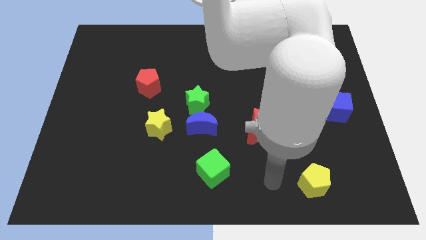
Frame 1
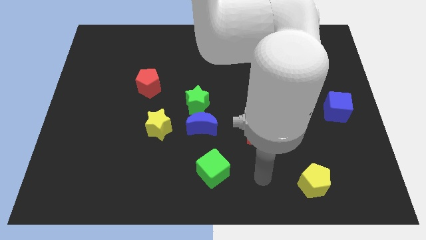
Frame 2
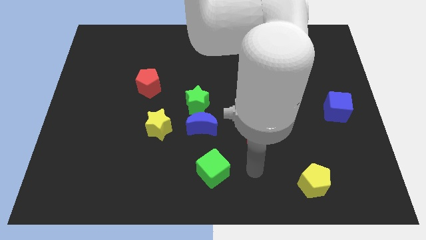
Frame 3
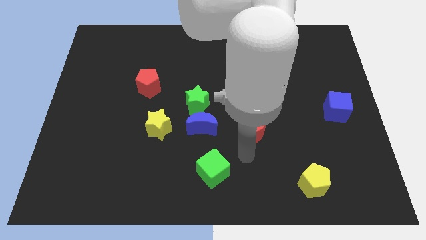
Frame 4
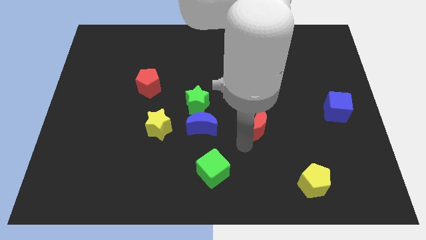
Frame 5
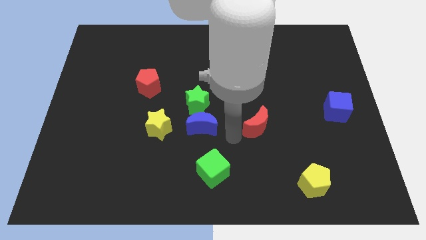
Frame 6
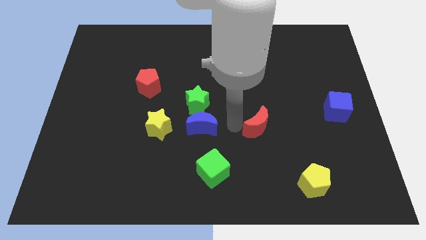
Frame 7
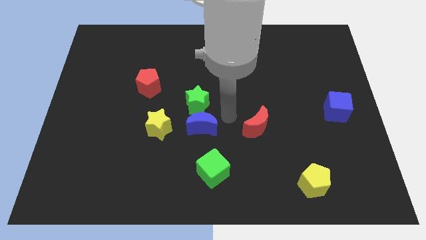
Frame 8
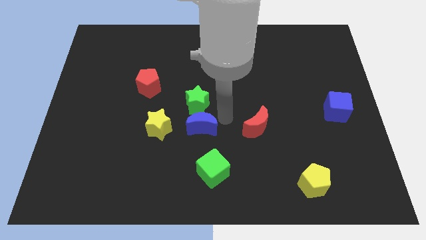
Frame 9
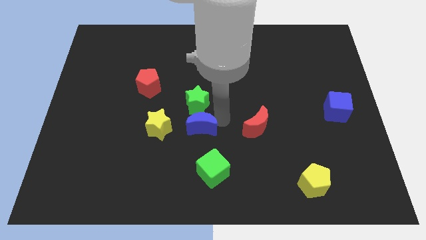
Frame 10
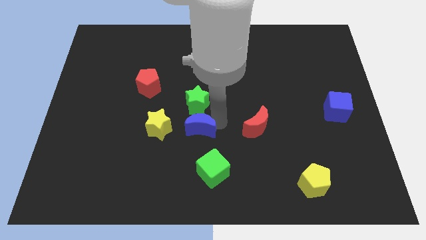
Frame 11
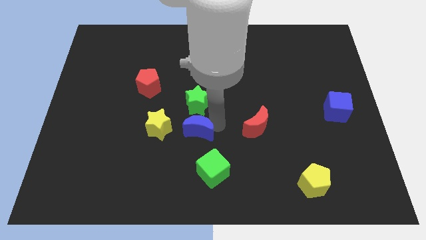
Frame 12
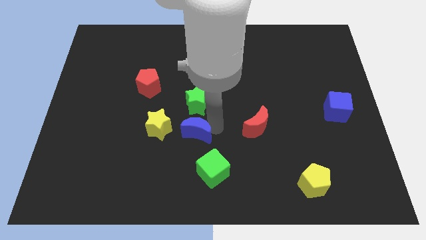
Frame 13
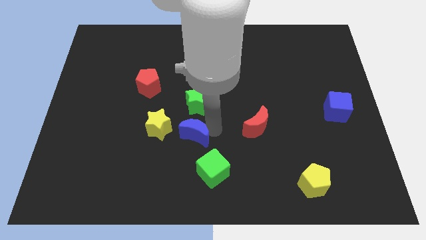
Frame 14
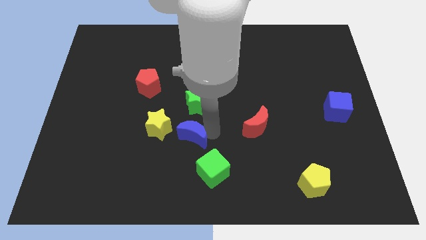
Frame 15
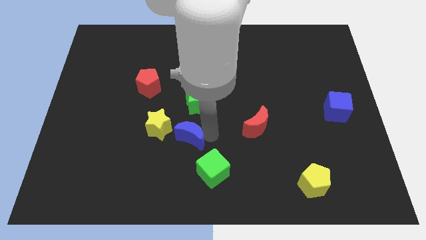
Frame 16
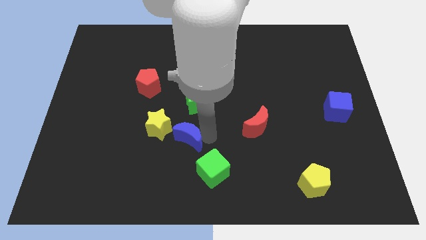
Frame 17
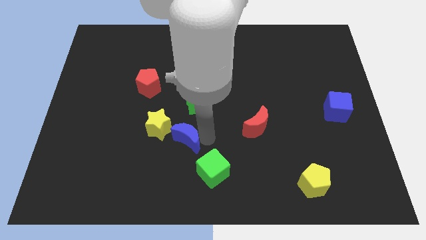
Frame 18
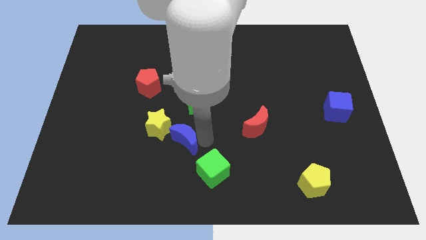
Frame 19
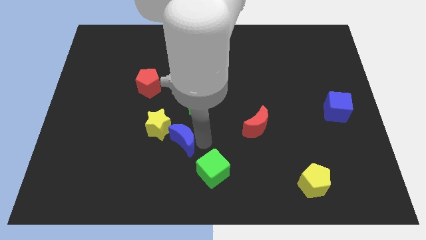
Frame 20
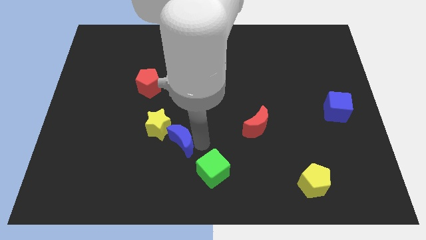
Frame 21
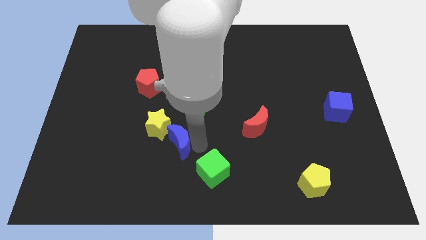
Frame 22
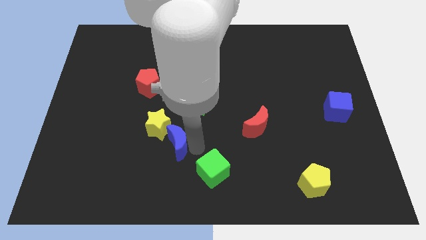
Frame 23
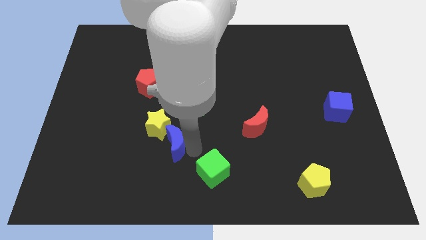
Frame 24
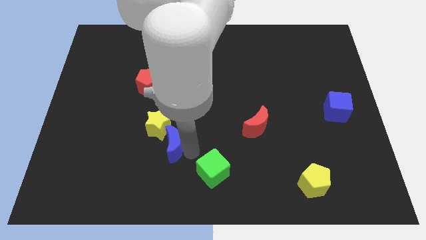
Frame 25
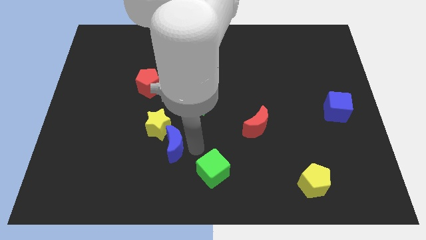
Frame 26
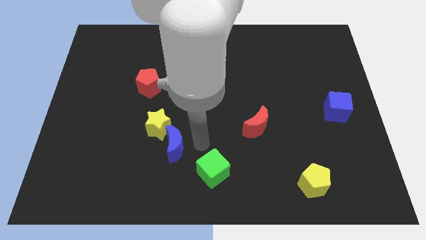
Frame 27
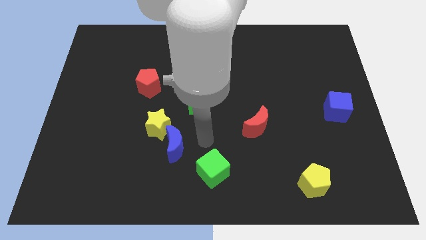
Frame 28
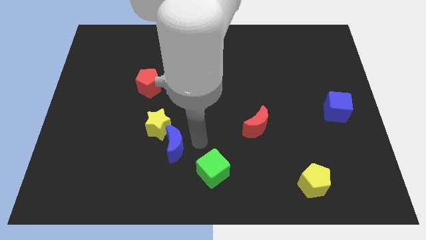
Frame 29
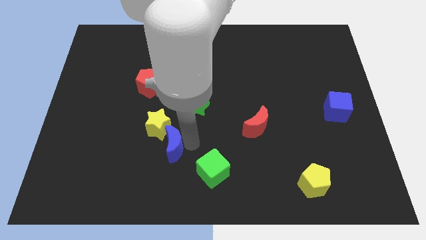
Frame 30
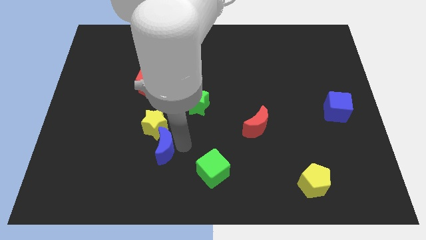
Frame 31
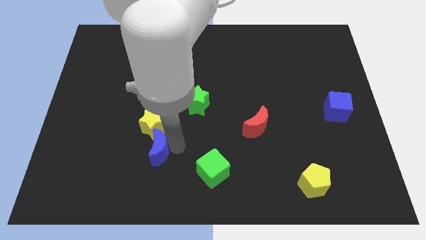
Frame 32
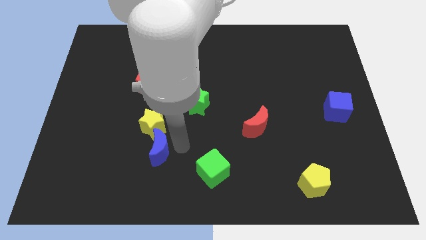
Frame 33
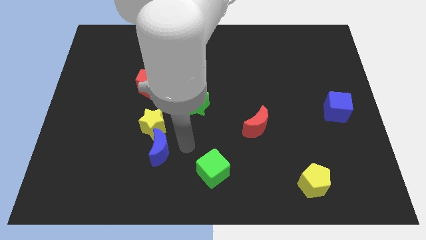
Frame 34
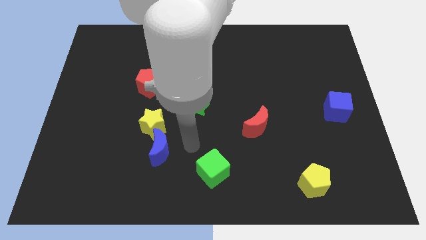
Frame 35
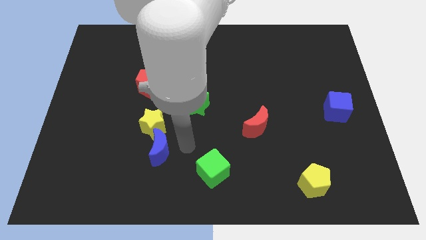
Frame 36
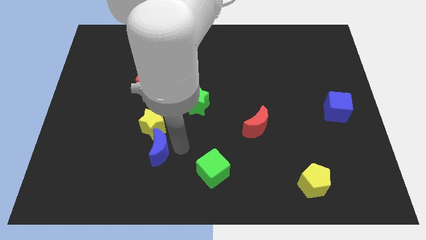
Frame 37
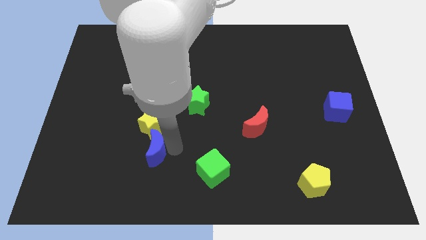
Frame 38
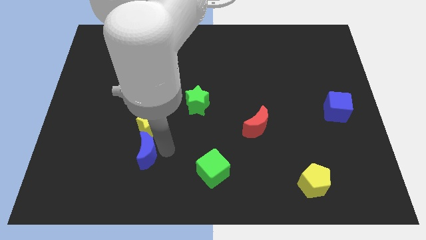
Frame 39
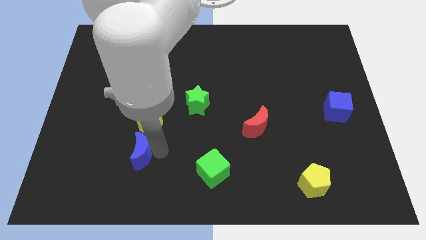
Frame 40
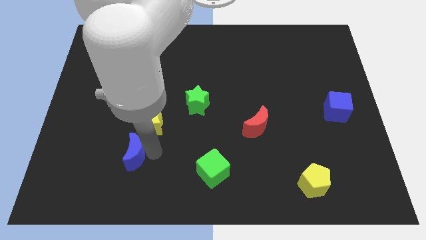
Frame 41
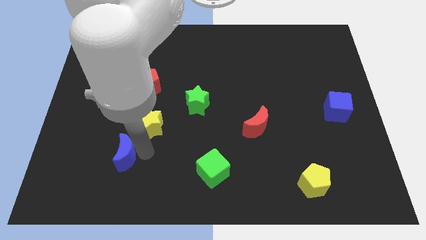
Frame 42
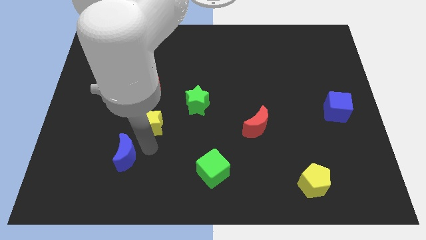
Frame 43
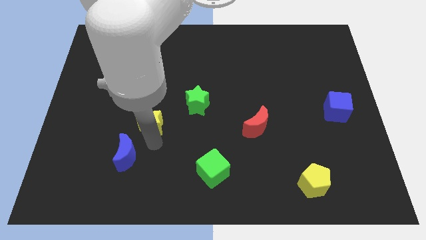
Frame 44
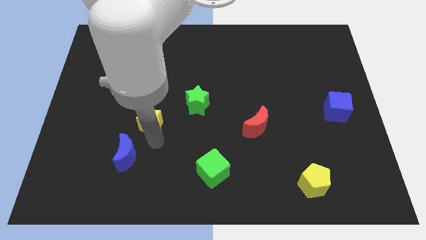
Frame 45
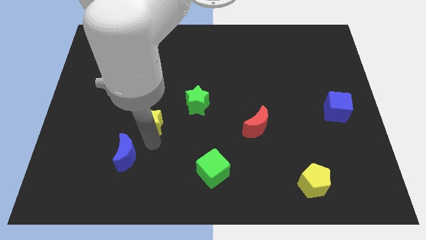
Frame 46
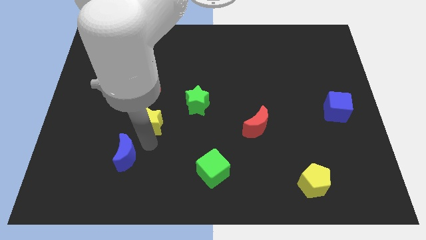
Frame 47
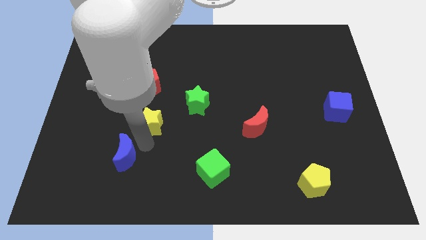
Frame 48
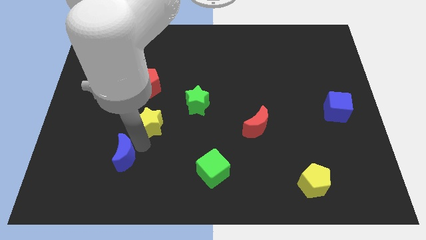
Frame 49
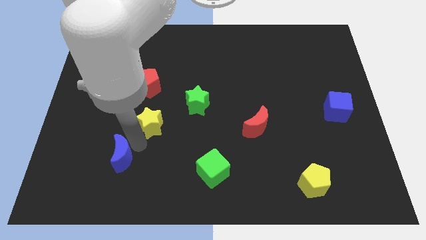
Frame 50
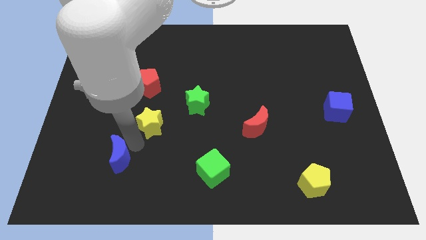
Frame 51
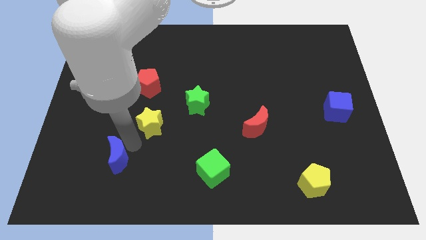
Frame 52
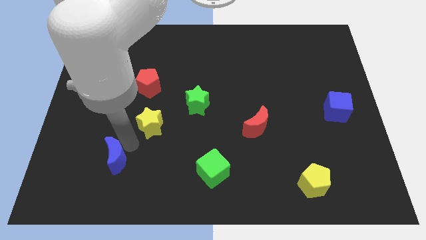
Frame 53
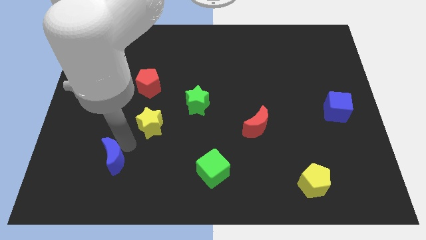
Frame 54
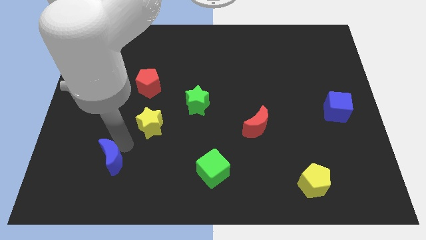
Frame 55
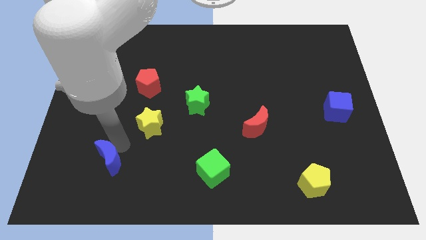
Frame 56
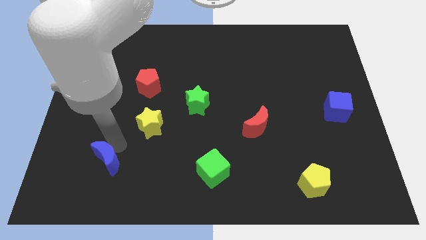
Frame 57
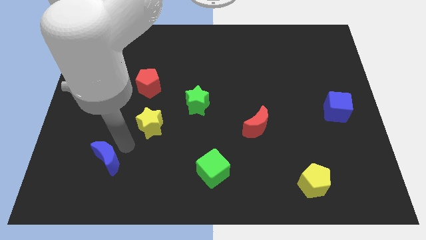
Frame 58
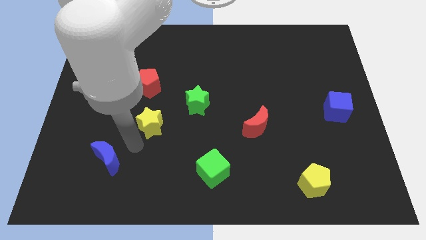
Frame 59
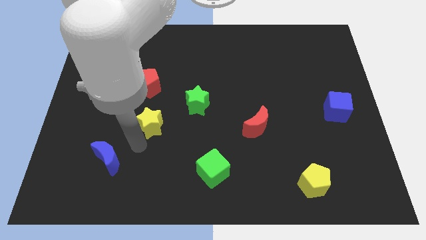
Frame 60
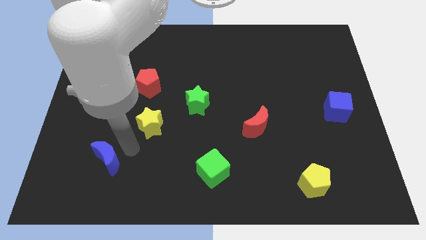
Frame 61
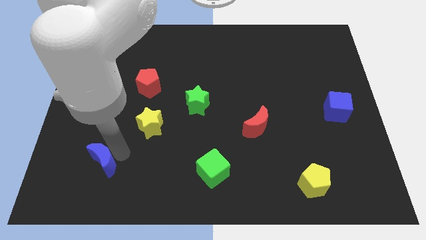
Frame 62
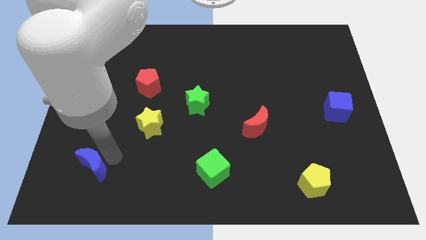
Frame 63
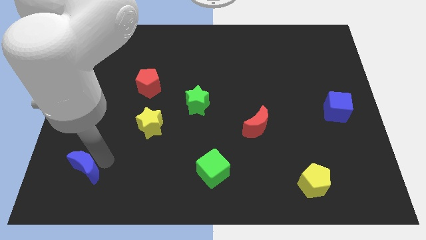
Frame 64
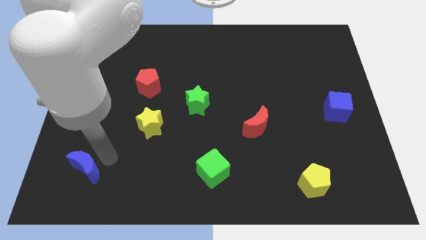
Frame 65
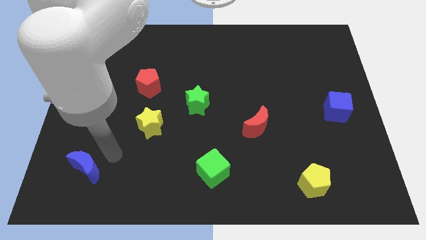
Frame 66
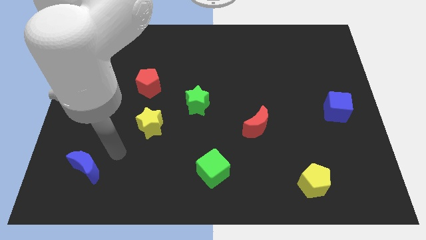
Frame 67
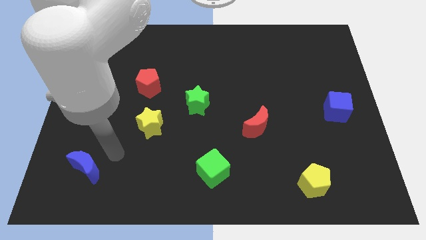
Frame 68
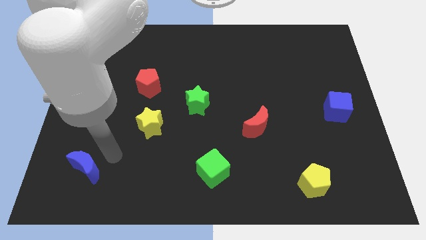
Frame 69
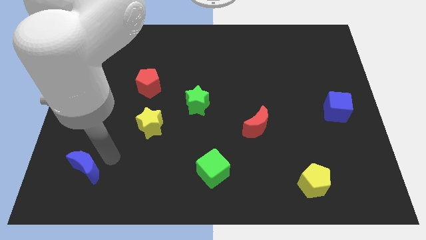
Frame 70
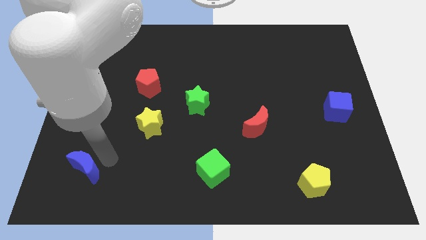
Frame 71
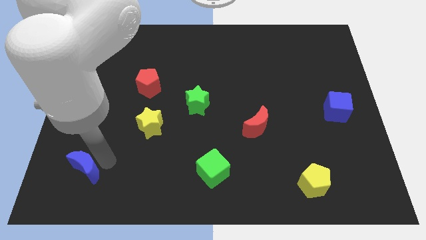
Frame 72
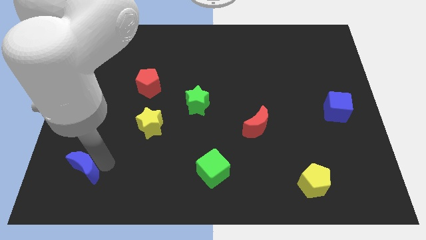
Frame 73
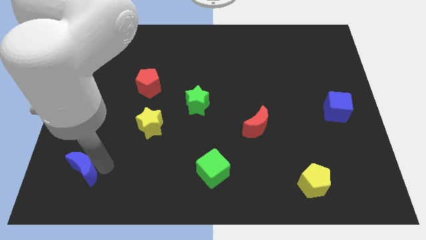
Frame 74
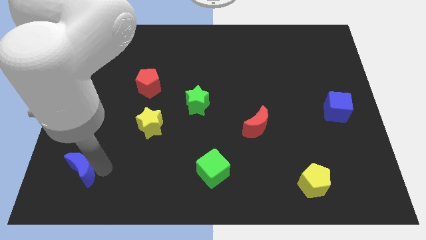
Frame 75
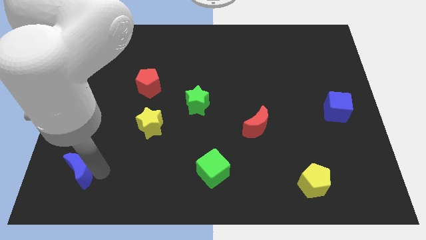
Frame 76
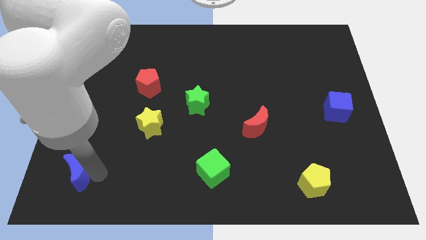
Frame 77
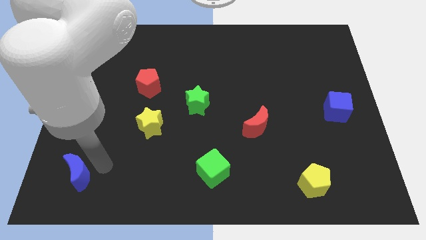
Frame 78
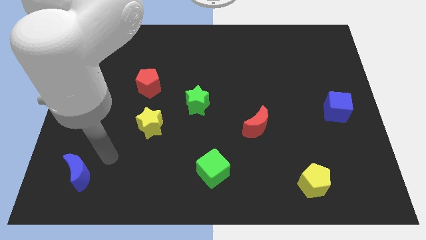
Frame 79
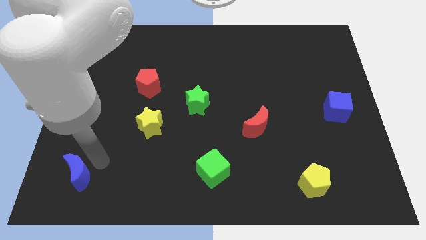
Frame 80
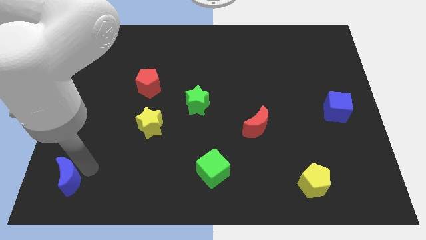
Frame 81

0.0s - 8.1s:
move the blue moon to the bottom left of the board
